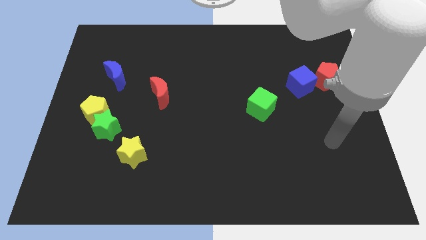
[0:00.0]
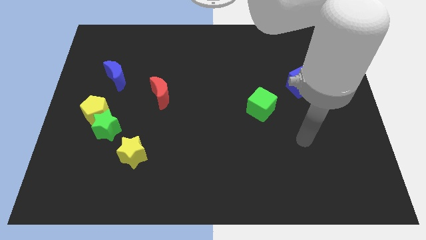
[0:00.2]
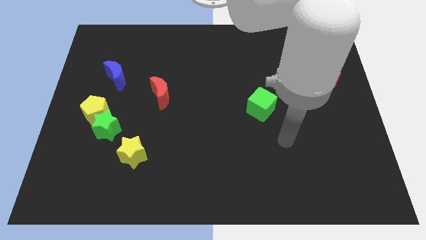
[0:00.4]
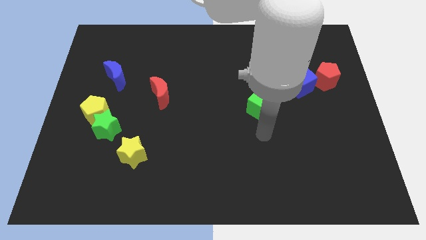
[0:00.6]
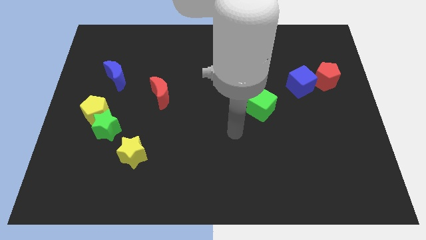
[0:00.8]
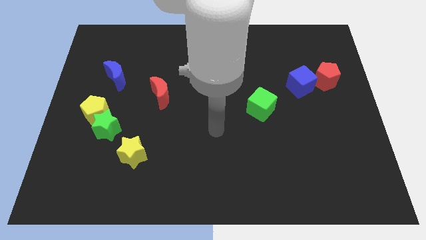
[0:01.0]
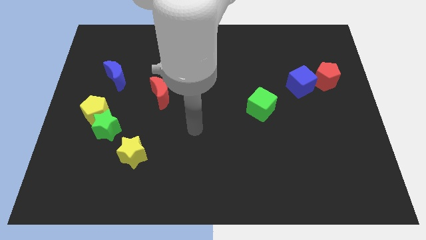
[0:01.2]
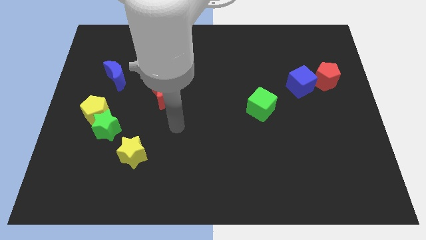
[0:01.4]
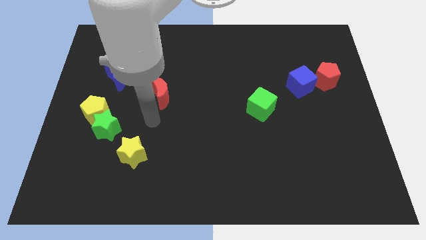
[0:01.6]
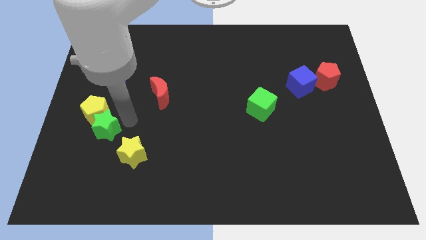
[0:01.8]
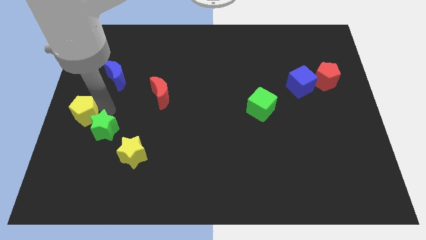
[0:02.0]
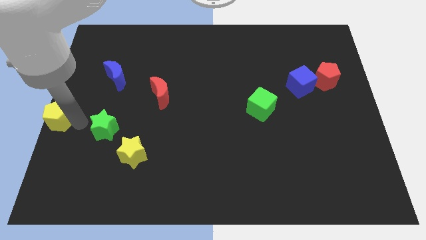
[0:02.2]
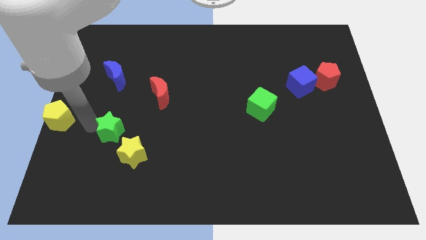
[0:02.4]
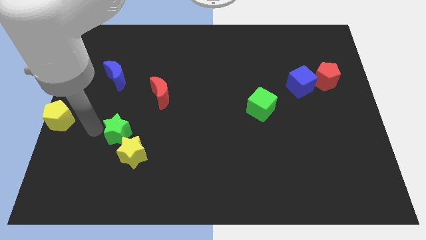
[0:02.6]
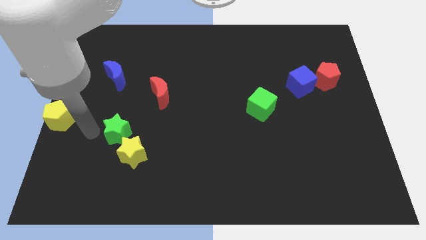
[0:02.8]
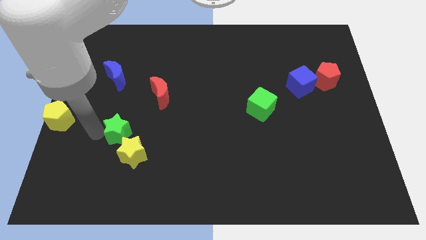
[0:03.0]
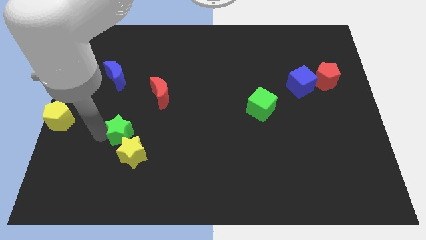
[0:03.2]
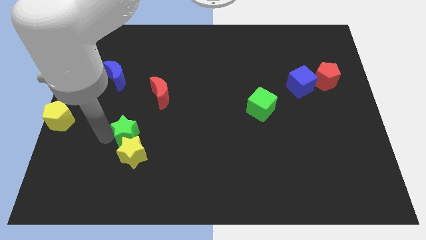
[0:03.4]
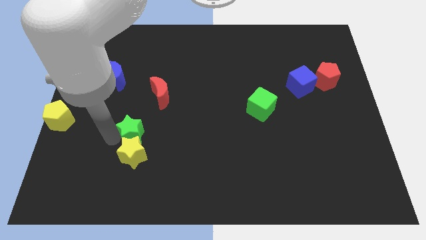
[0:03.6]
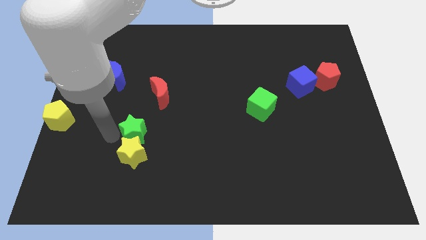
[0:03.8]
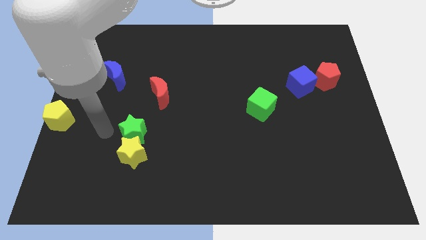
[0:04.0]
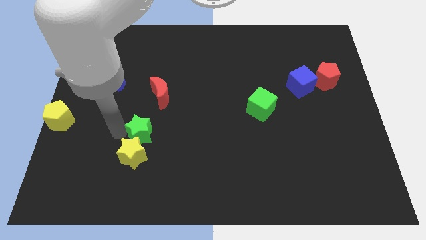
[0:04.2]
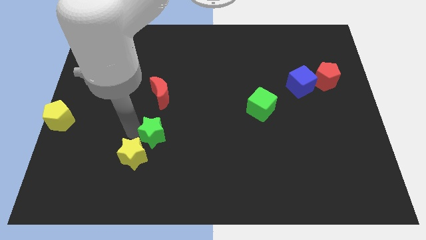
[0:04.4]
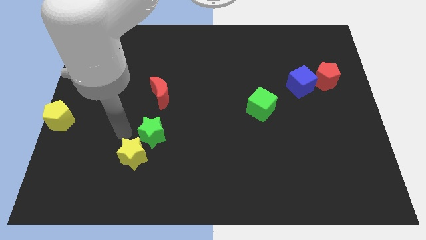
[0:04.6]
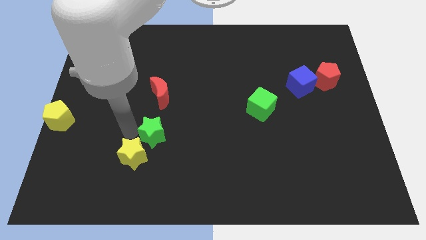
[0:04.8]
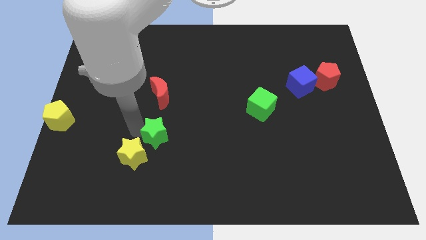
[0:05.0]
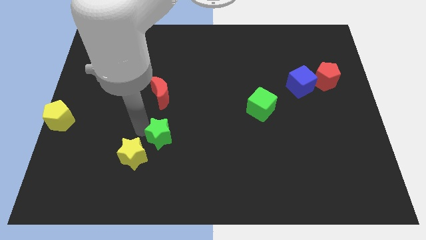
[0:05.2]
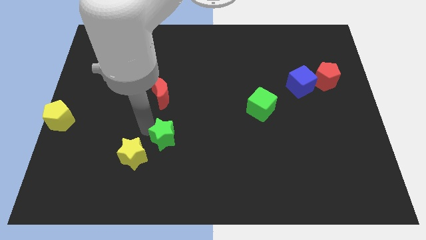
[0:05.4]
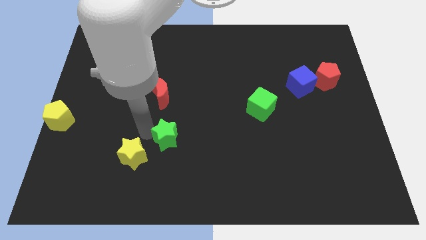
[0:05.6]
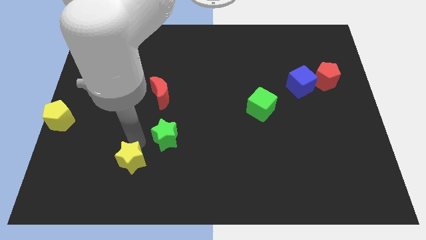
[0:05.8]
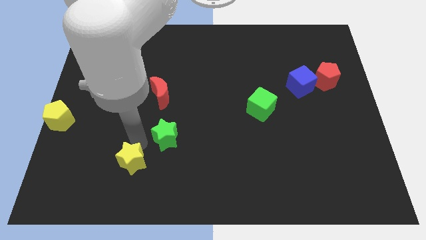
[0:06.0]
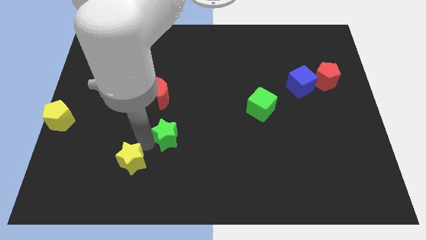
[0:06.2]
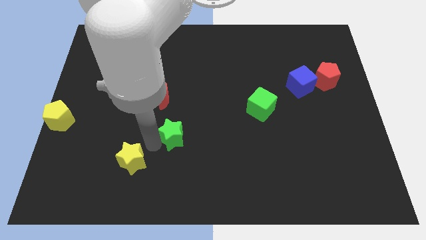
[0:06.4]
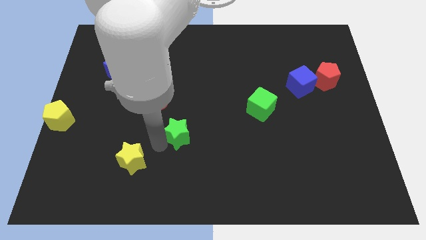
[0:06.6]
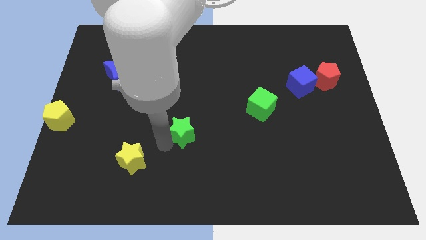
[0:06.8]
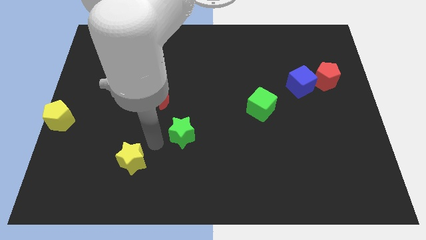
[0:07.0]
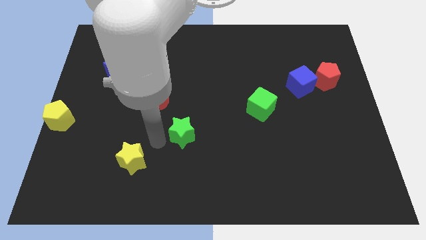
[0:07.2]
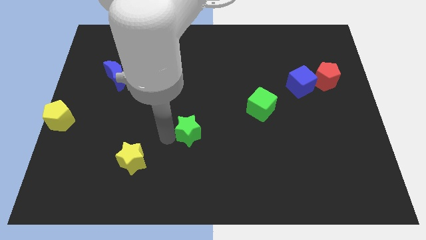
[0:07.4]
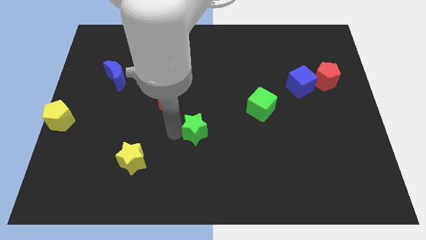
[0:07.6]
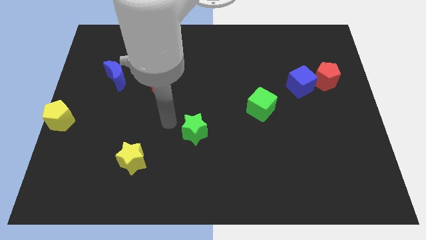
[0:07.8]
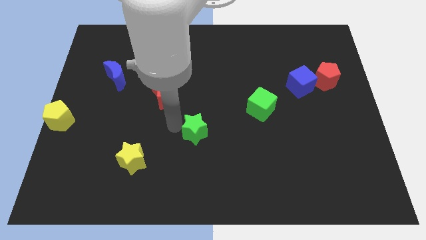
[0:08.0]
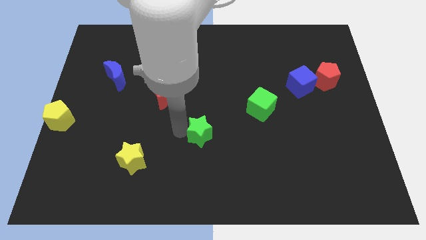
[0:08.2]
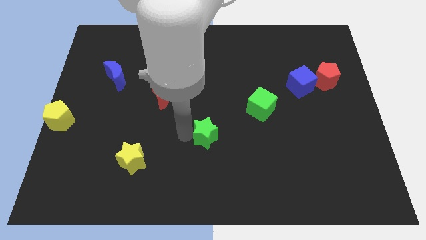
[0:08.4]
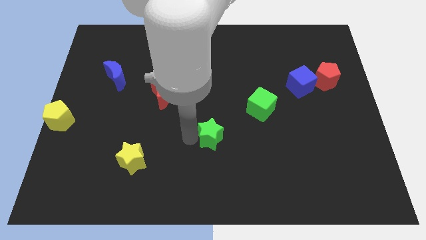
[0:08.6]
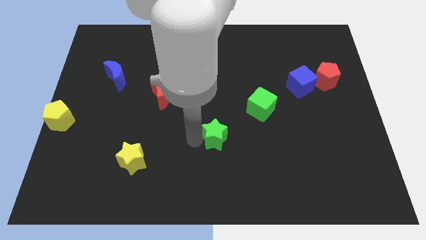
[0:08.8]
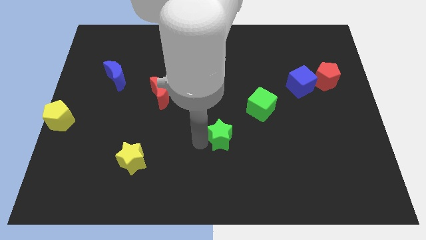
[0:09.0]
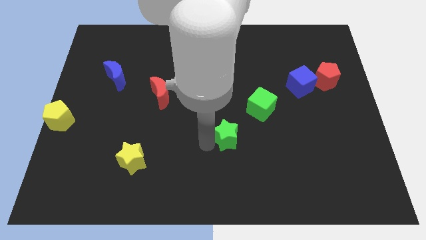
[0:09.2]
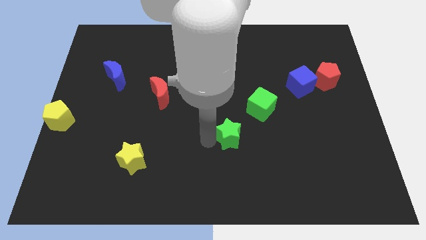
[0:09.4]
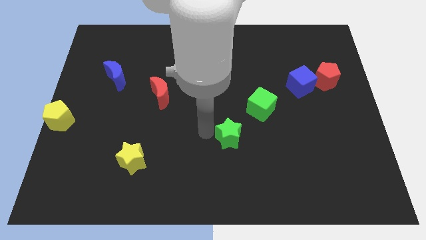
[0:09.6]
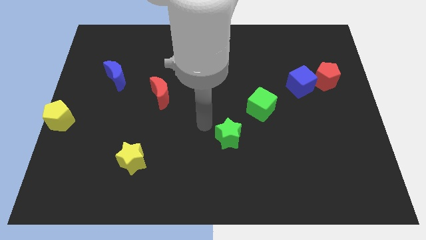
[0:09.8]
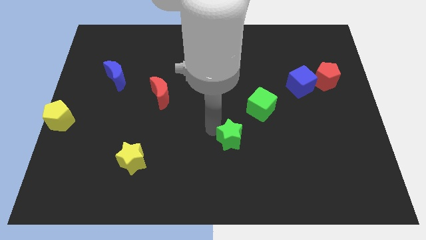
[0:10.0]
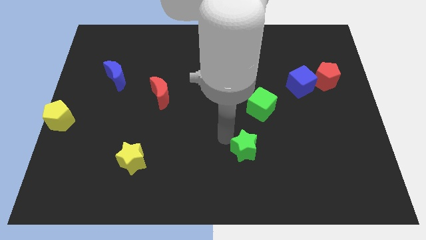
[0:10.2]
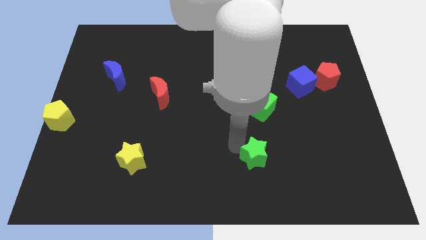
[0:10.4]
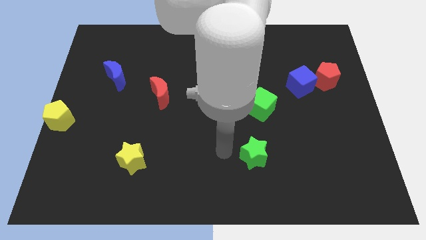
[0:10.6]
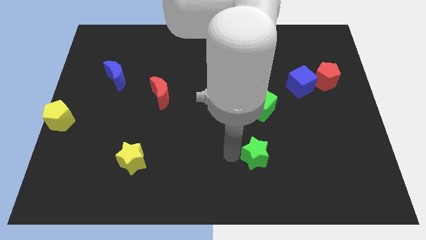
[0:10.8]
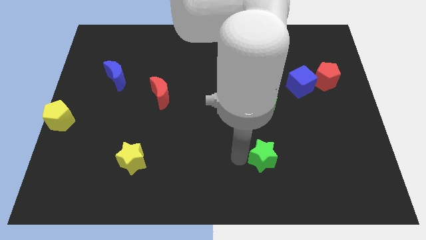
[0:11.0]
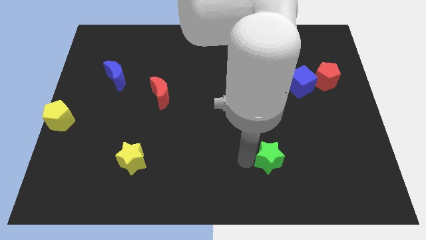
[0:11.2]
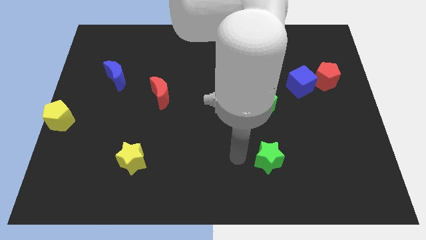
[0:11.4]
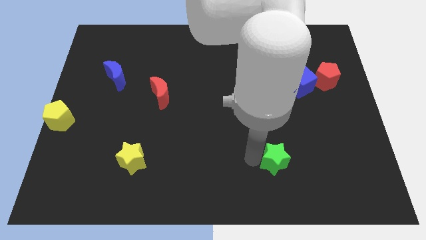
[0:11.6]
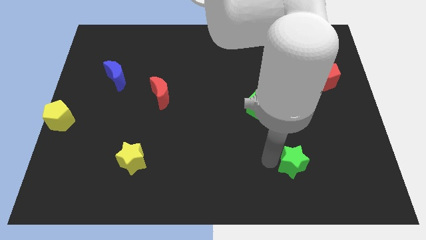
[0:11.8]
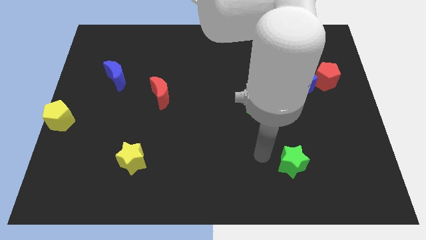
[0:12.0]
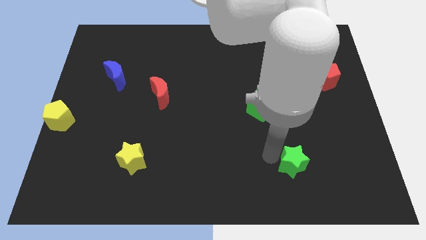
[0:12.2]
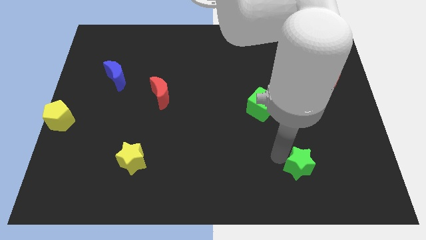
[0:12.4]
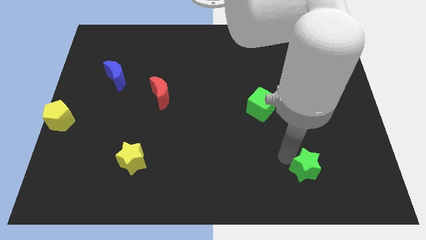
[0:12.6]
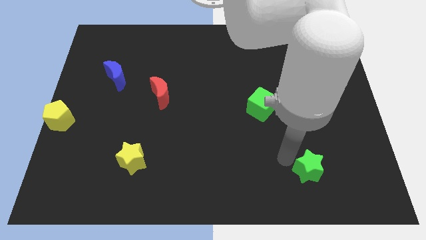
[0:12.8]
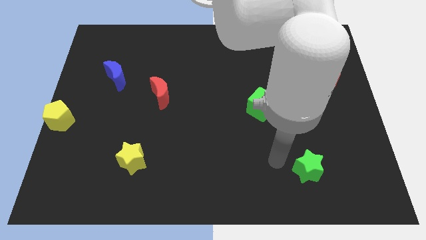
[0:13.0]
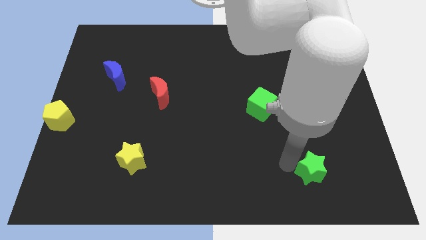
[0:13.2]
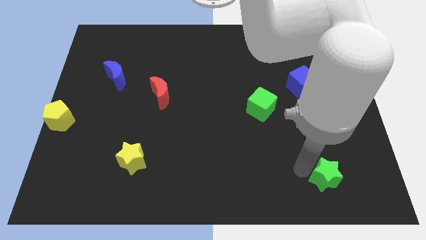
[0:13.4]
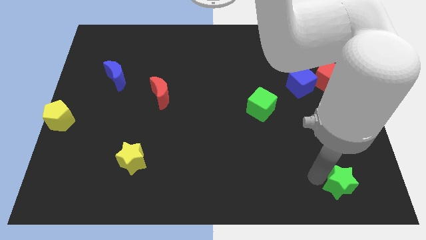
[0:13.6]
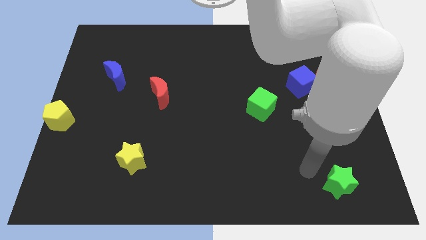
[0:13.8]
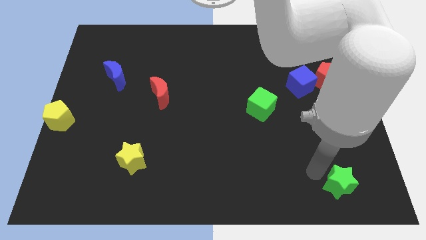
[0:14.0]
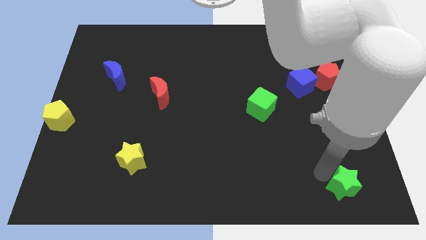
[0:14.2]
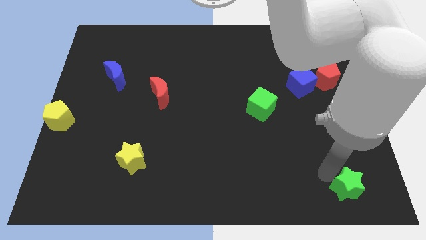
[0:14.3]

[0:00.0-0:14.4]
push the green star to the lower right corner
